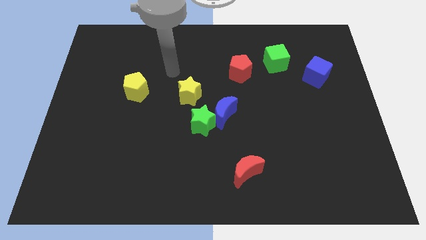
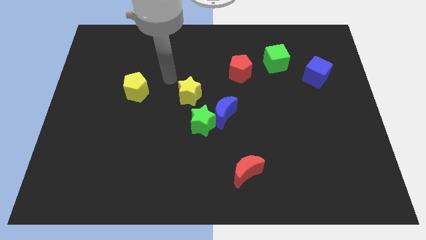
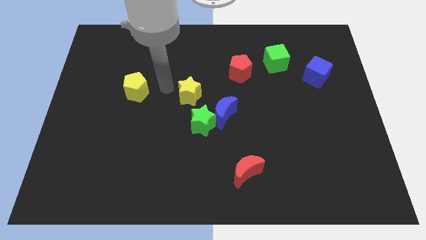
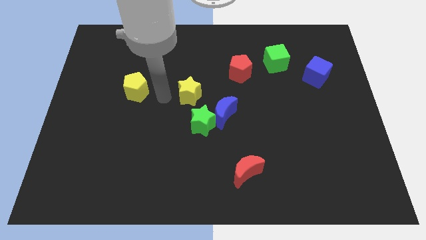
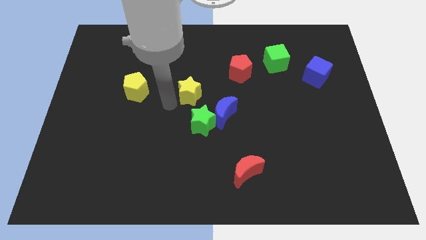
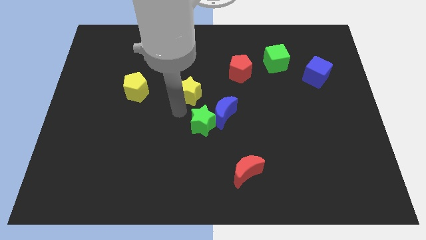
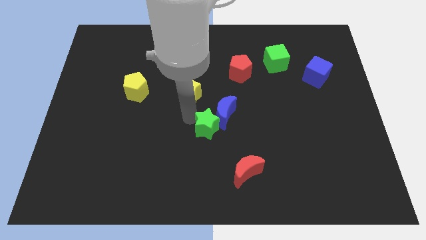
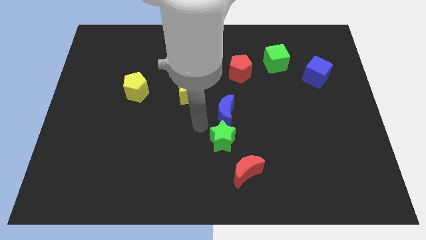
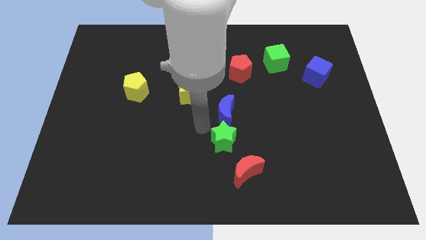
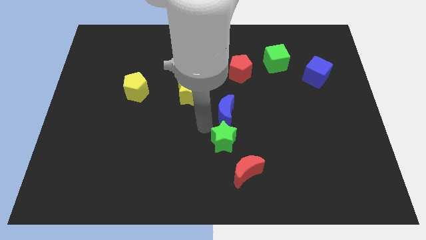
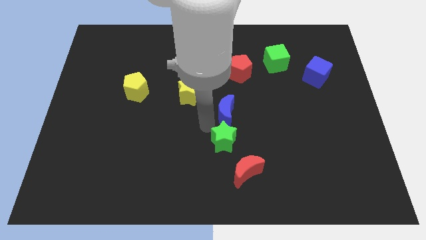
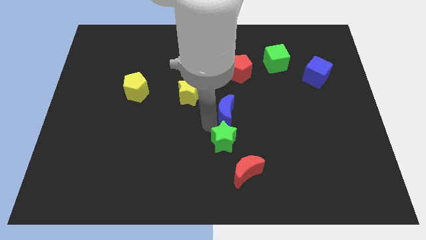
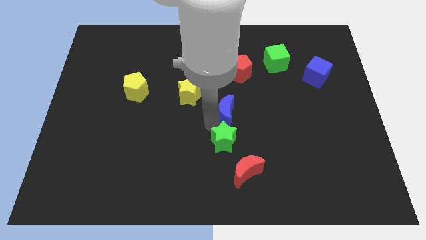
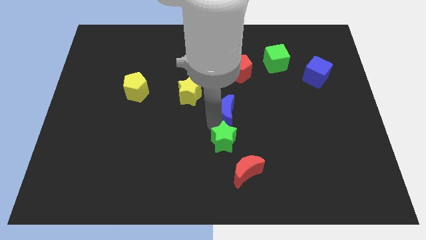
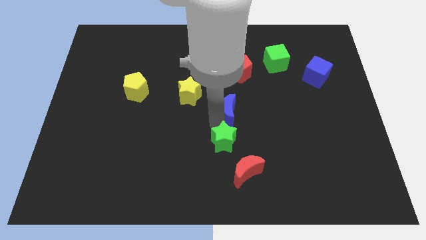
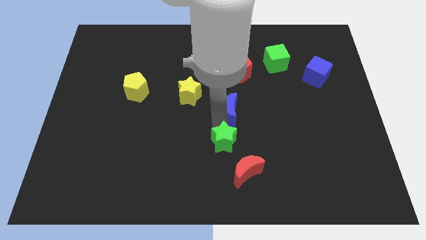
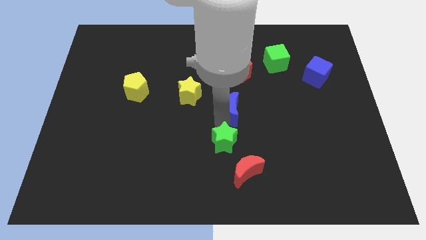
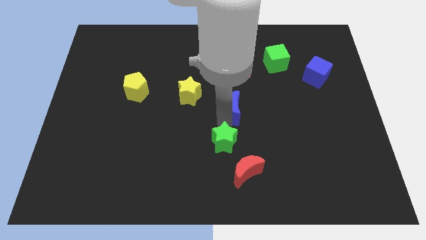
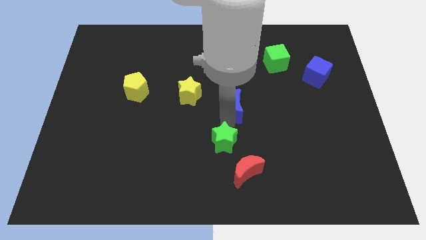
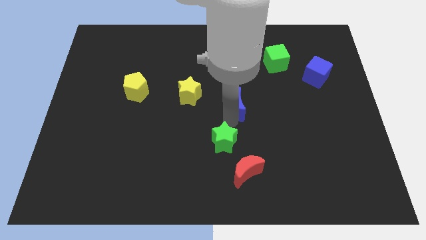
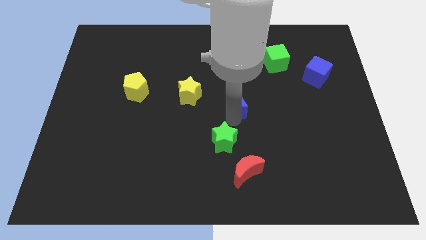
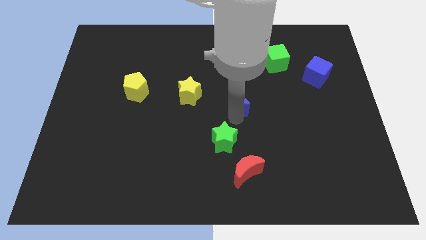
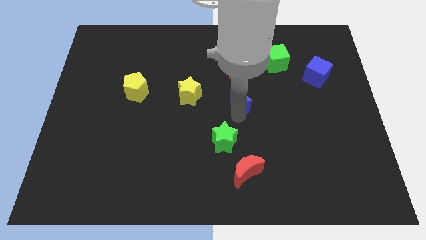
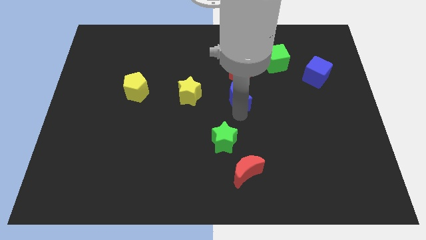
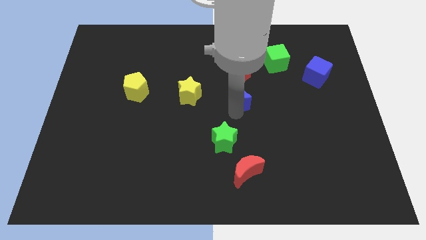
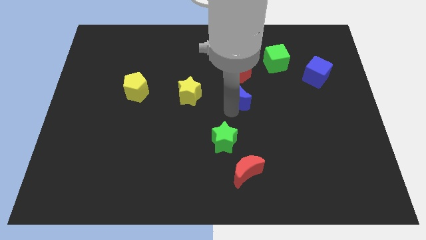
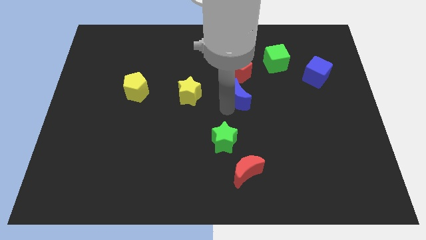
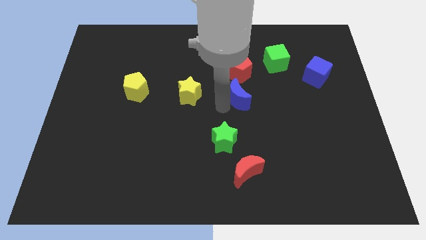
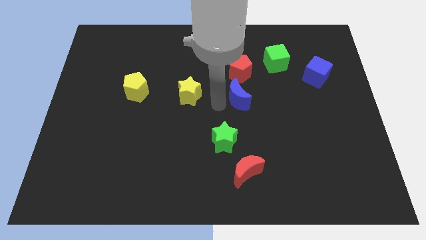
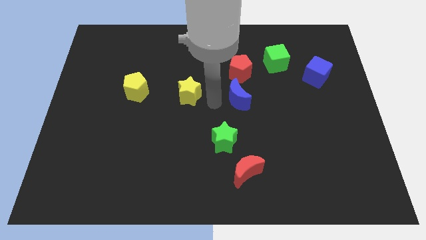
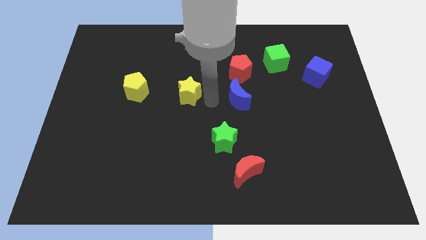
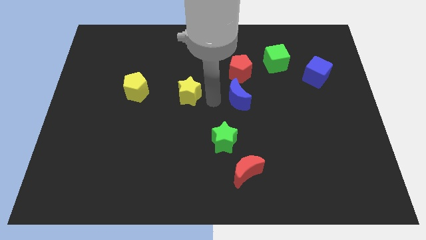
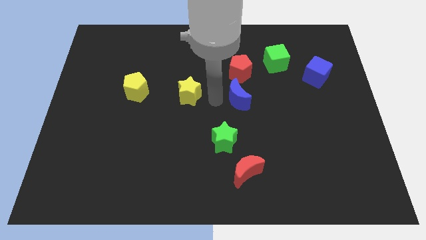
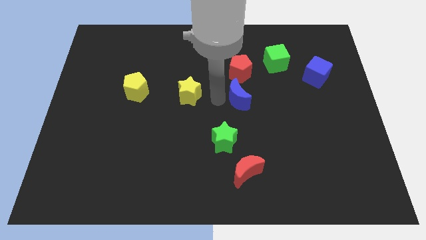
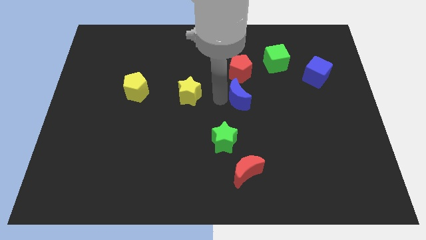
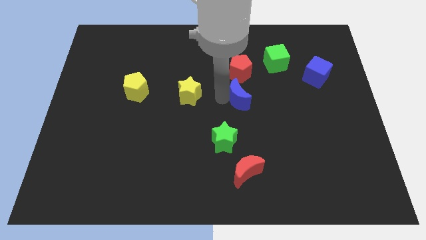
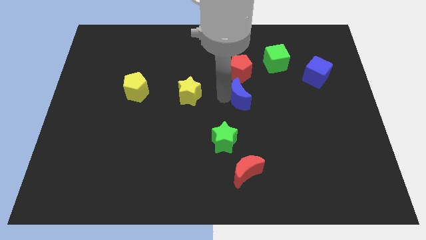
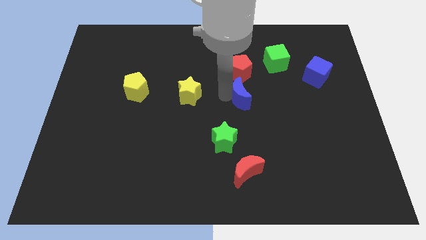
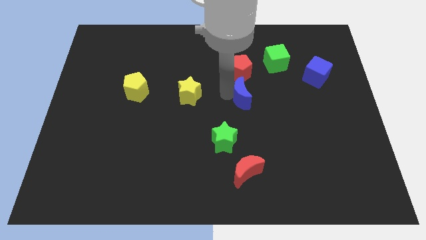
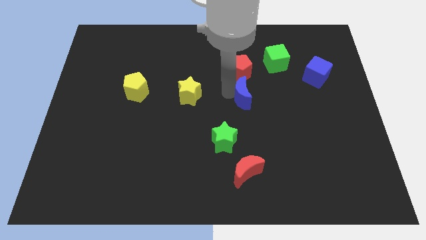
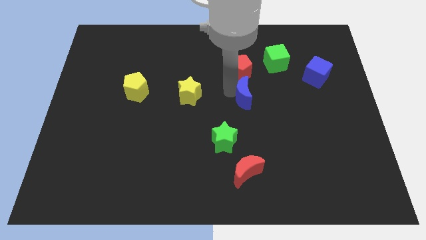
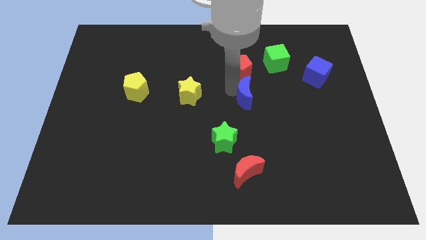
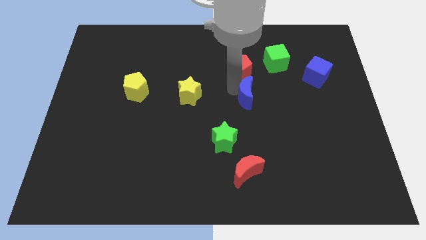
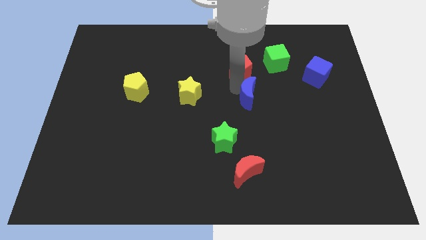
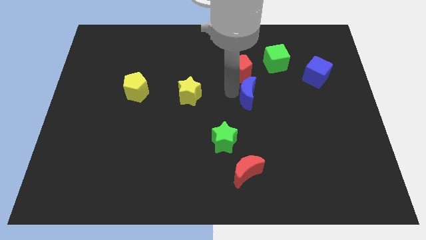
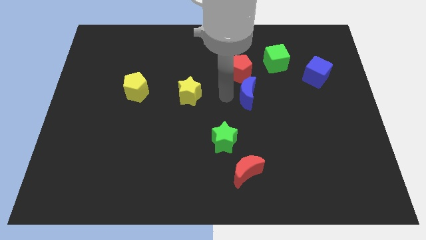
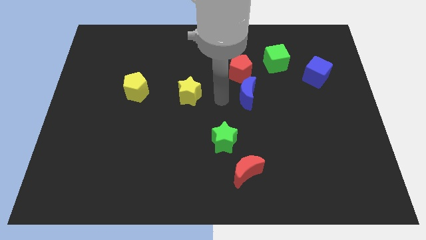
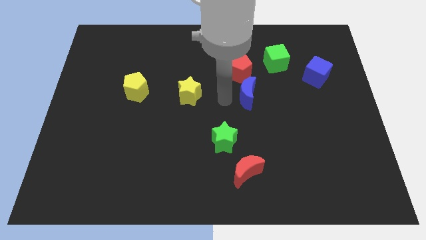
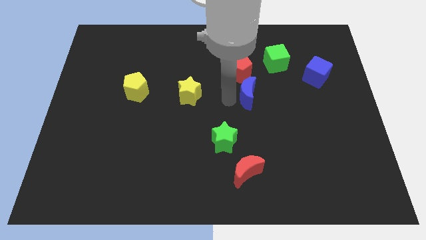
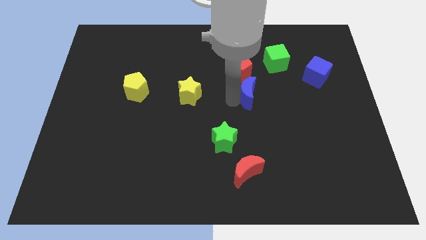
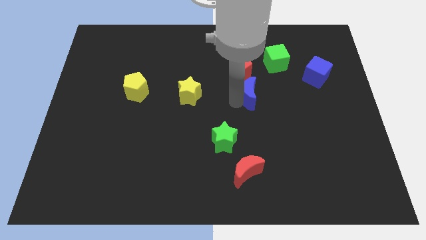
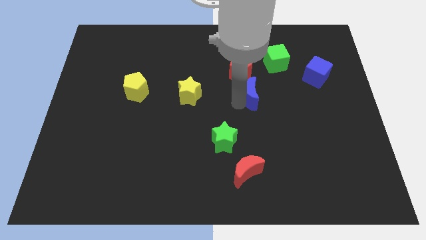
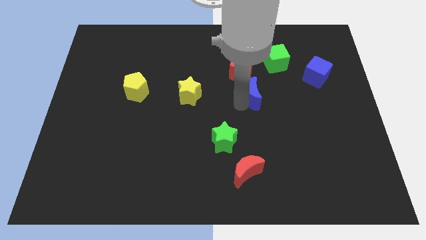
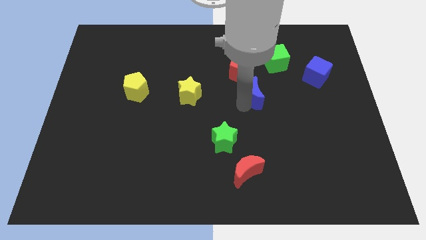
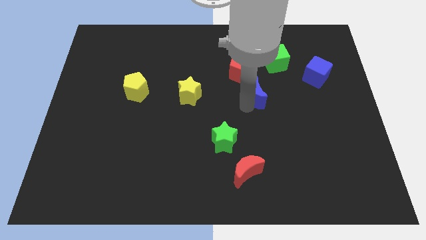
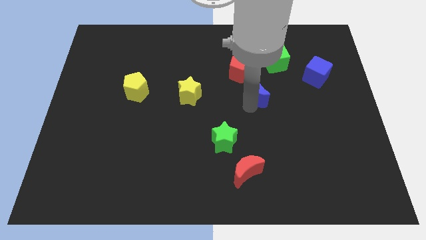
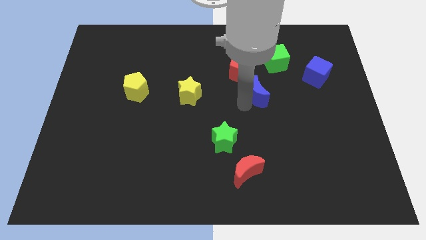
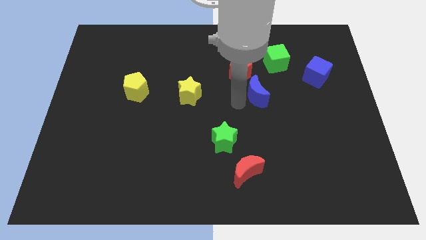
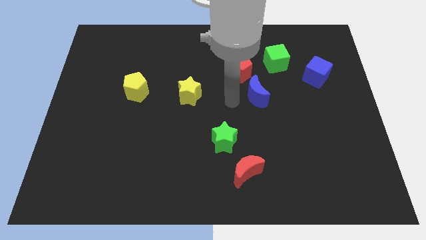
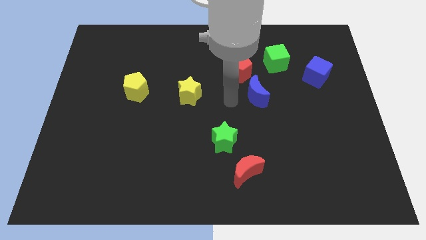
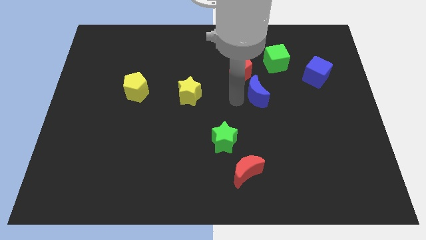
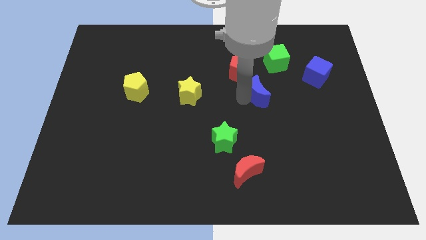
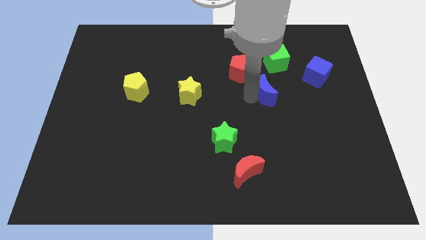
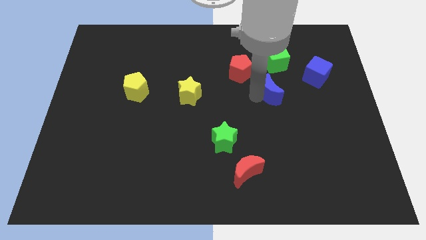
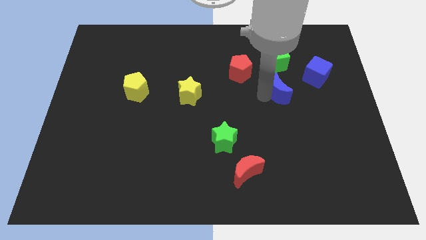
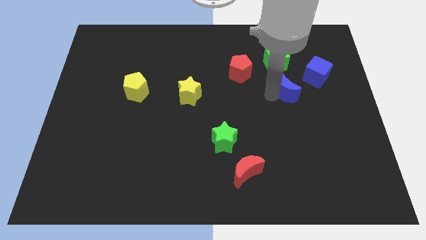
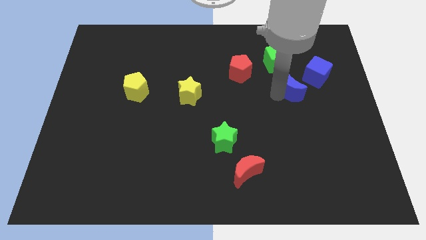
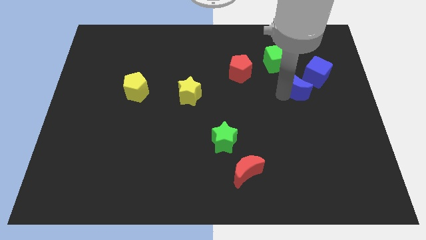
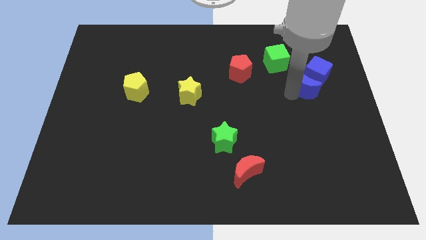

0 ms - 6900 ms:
put the blue moon to the blue cube
